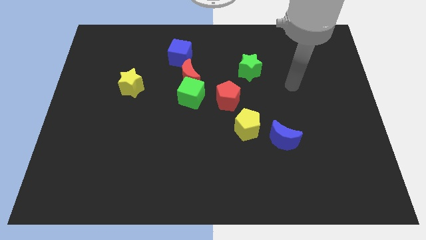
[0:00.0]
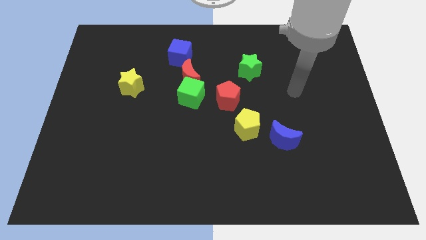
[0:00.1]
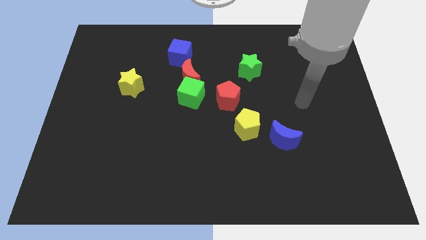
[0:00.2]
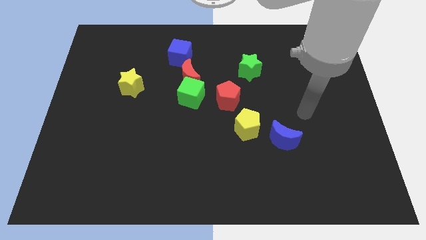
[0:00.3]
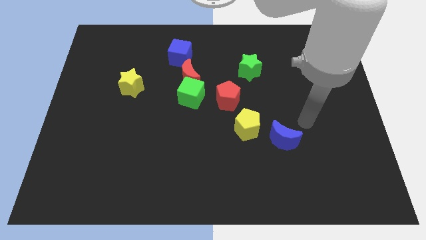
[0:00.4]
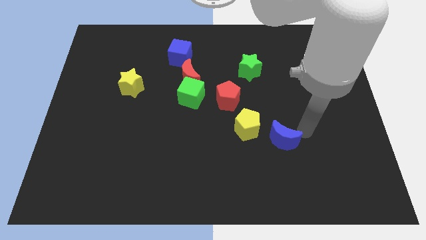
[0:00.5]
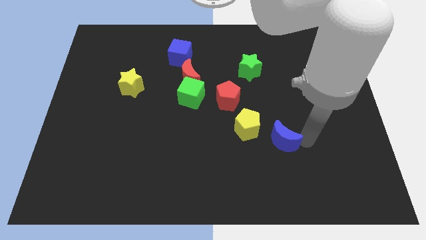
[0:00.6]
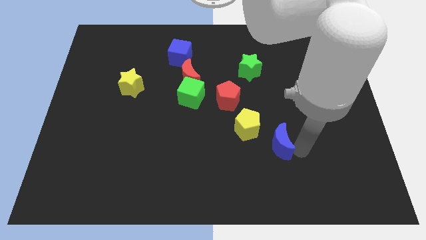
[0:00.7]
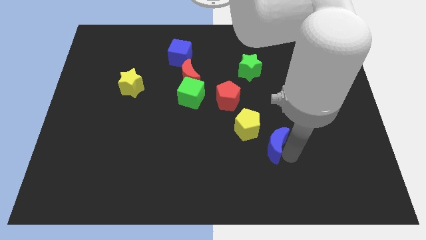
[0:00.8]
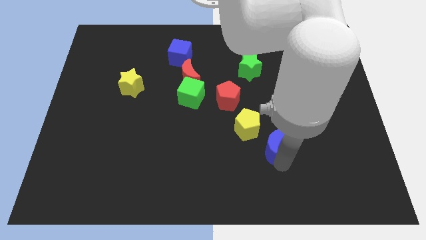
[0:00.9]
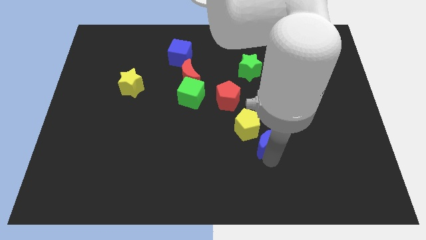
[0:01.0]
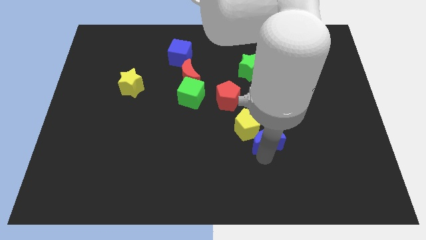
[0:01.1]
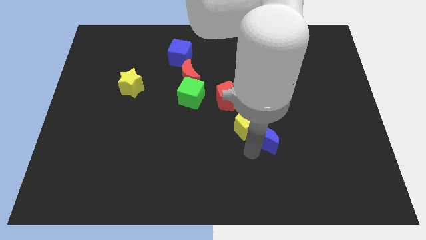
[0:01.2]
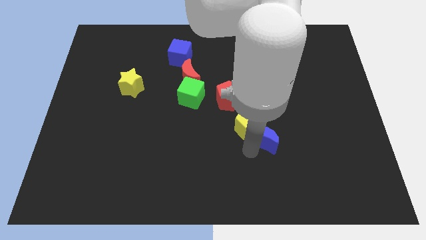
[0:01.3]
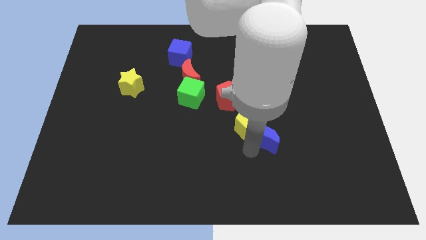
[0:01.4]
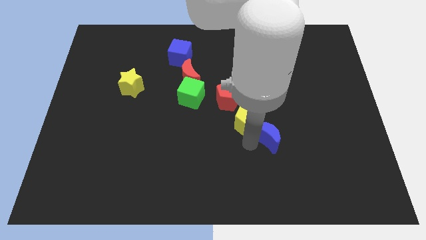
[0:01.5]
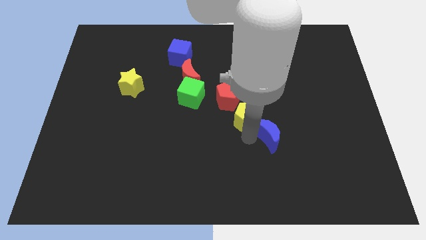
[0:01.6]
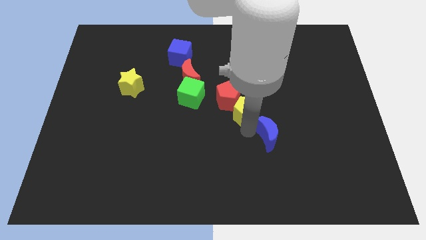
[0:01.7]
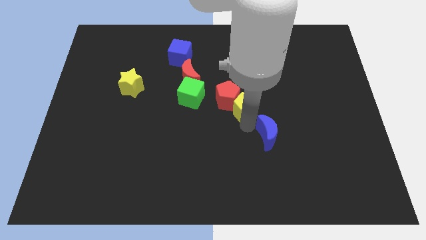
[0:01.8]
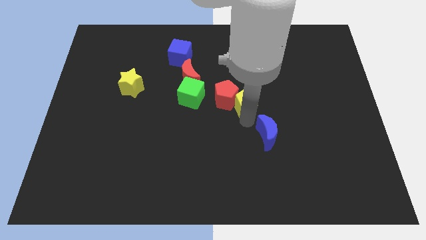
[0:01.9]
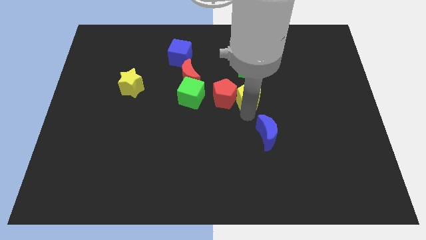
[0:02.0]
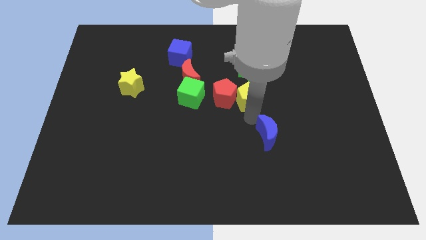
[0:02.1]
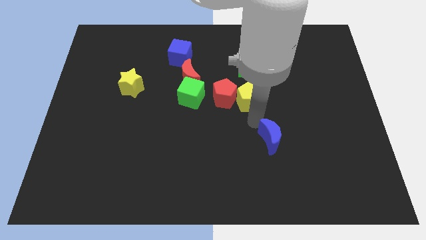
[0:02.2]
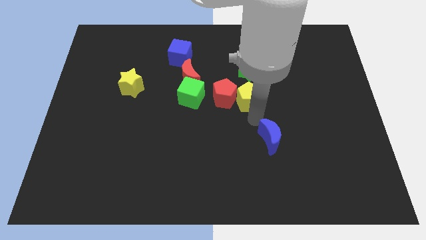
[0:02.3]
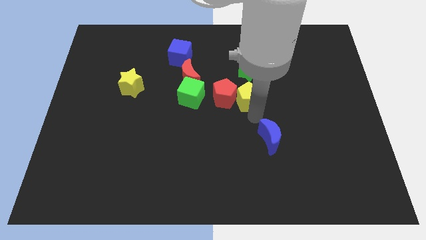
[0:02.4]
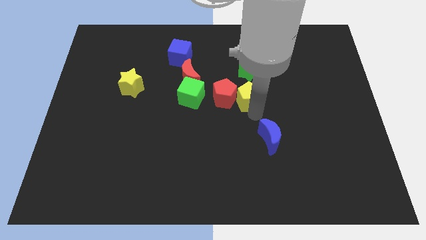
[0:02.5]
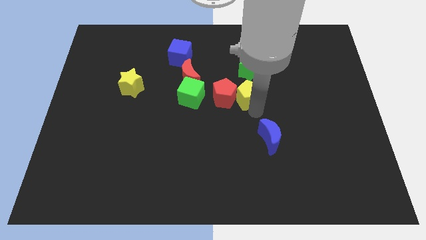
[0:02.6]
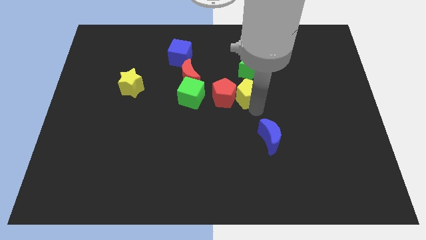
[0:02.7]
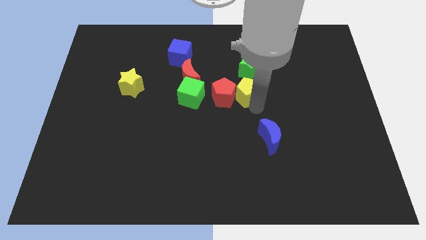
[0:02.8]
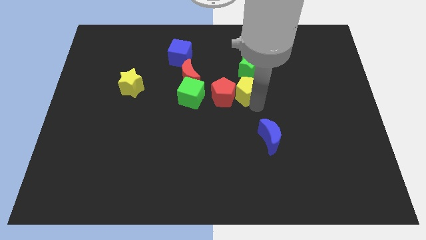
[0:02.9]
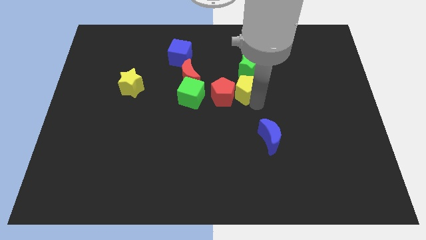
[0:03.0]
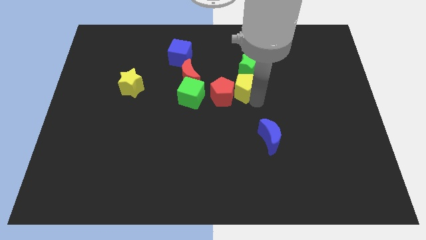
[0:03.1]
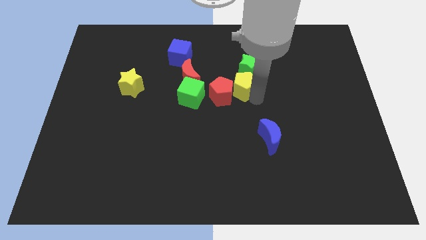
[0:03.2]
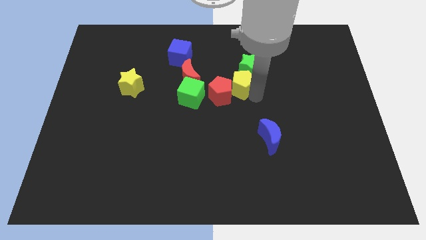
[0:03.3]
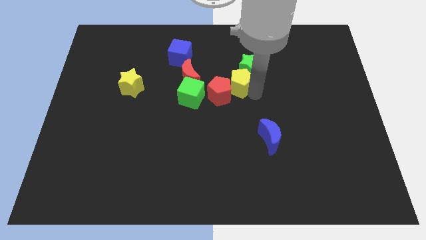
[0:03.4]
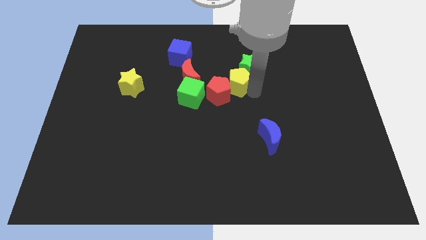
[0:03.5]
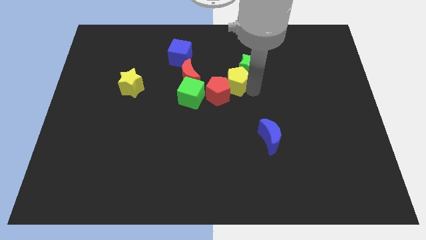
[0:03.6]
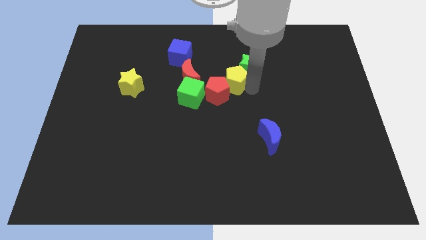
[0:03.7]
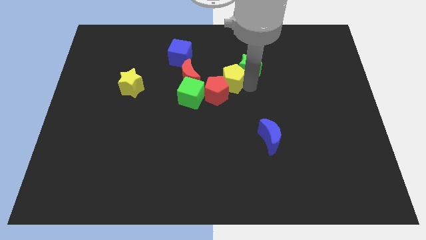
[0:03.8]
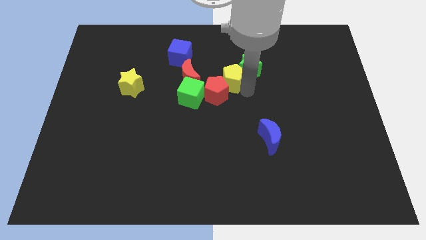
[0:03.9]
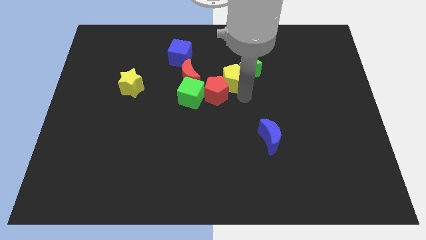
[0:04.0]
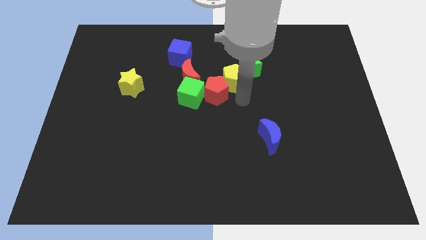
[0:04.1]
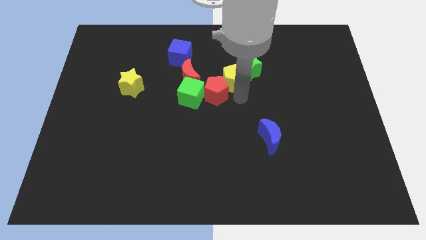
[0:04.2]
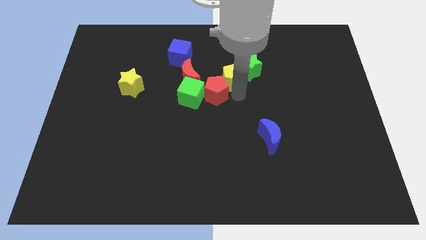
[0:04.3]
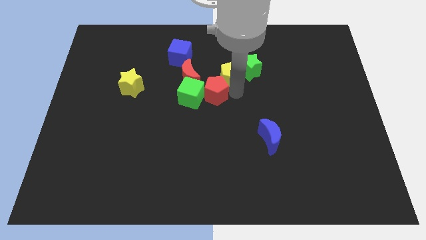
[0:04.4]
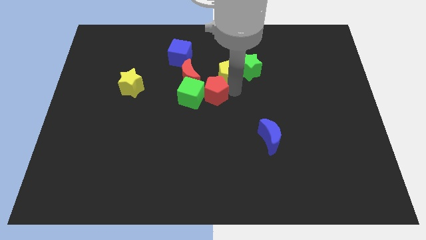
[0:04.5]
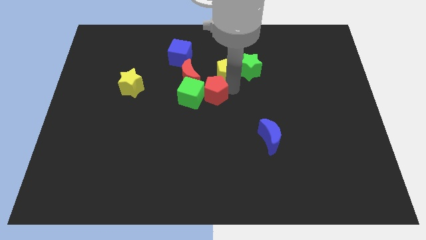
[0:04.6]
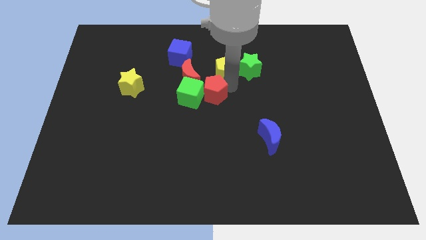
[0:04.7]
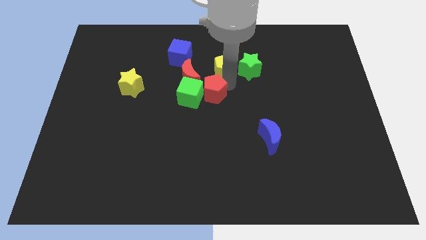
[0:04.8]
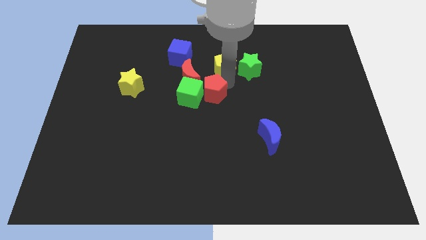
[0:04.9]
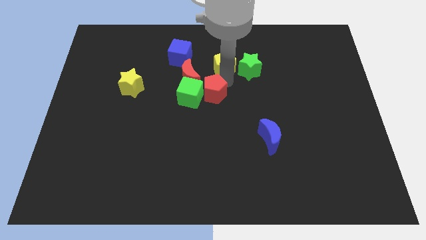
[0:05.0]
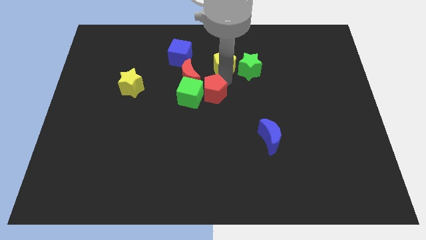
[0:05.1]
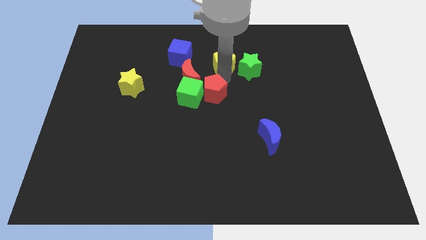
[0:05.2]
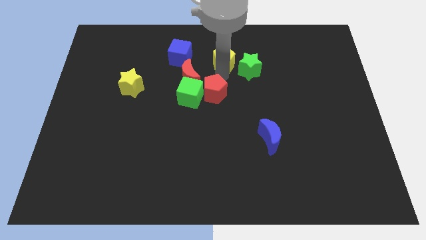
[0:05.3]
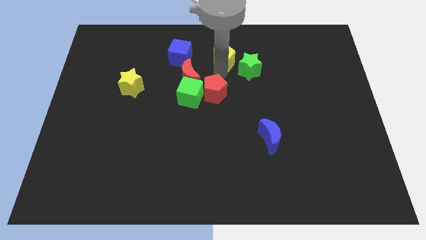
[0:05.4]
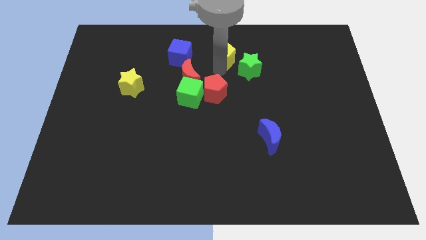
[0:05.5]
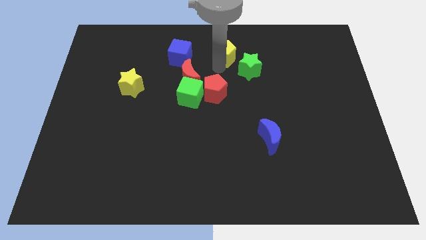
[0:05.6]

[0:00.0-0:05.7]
slide the yellow pentagon to the top

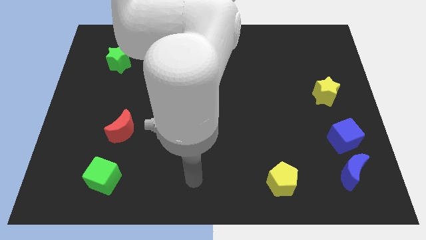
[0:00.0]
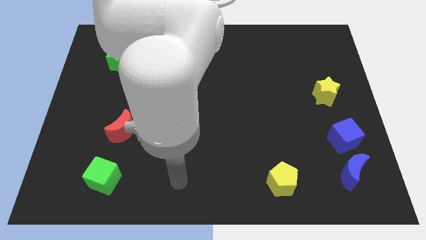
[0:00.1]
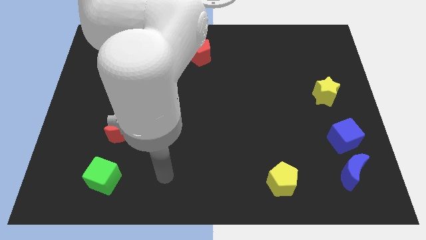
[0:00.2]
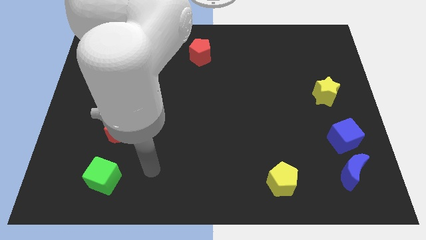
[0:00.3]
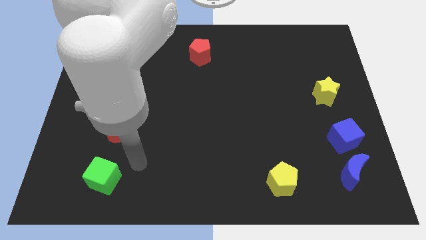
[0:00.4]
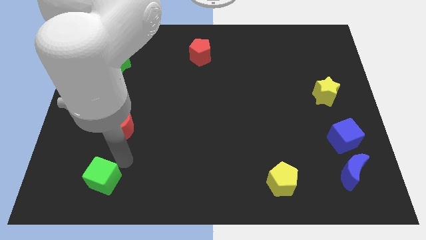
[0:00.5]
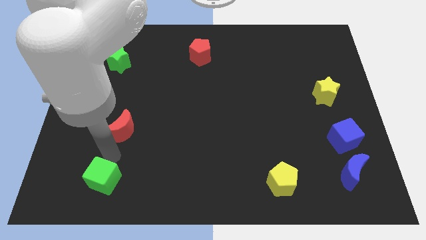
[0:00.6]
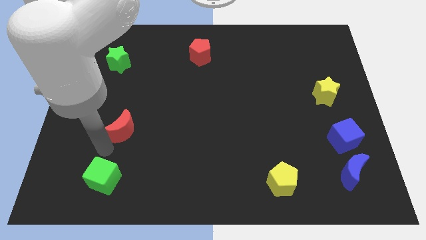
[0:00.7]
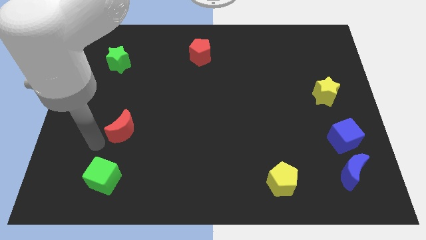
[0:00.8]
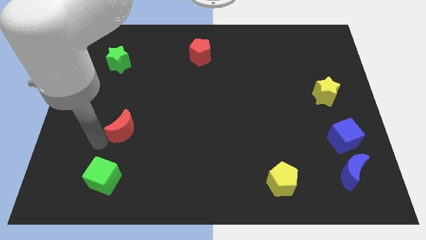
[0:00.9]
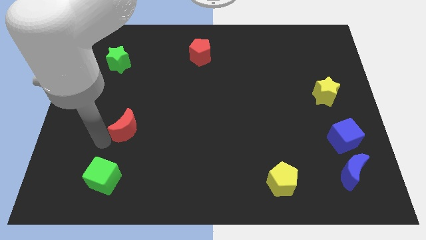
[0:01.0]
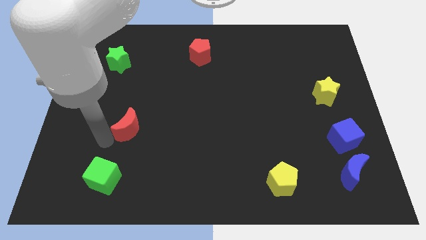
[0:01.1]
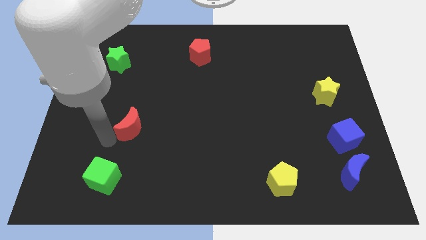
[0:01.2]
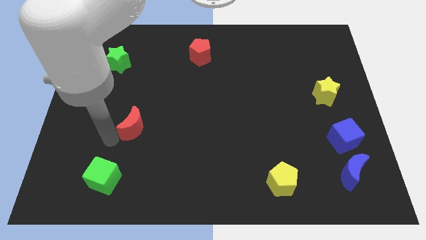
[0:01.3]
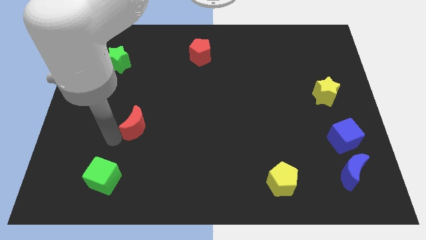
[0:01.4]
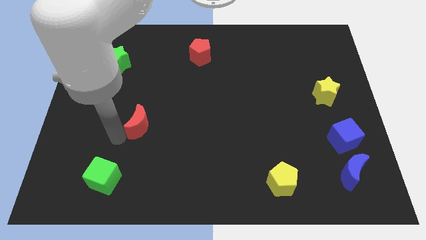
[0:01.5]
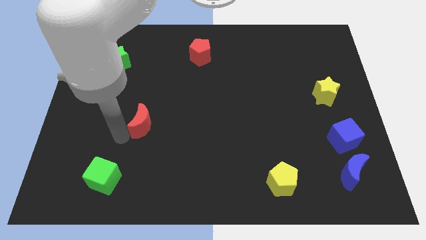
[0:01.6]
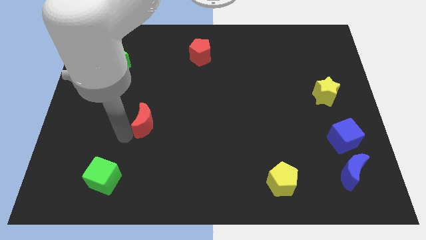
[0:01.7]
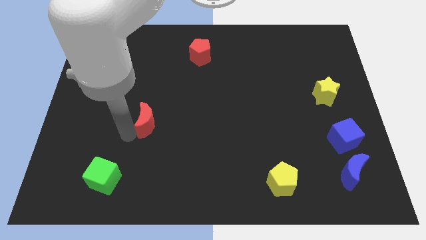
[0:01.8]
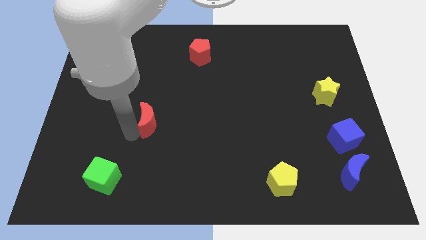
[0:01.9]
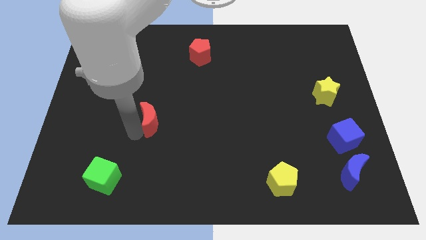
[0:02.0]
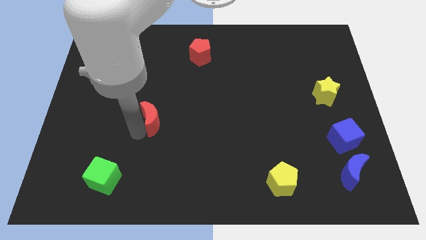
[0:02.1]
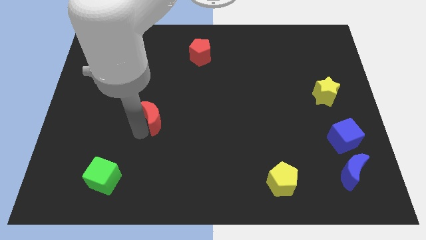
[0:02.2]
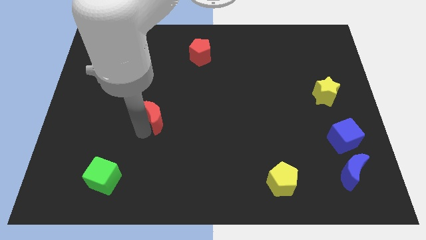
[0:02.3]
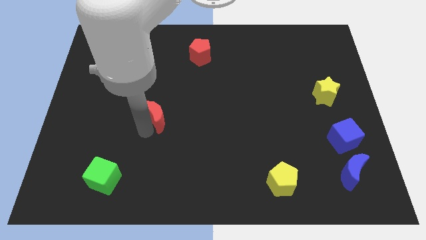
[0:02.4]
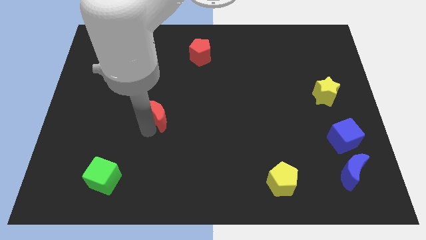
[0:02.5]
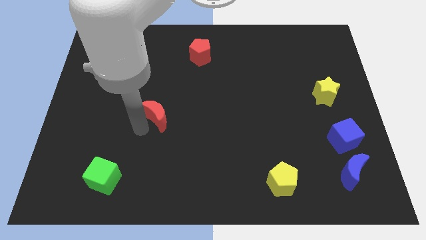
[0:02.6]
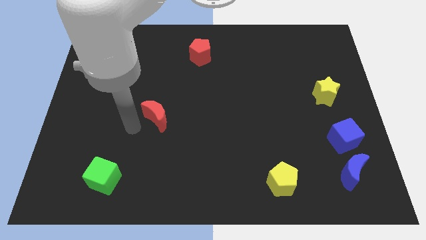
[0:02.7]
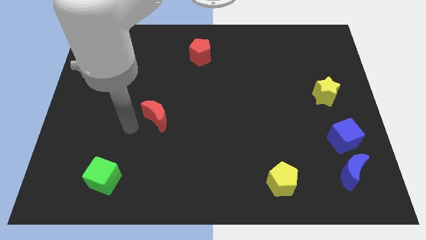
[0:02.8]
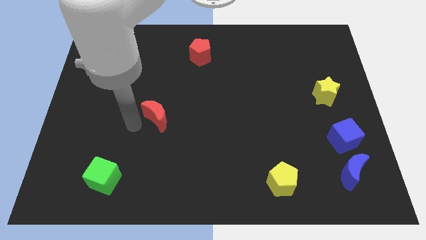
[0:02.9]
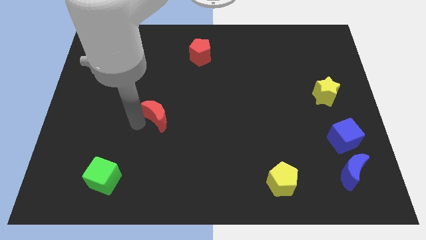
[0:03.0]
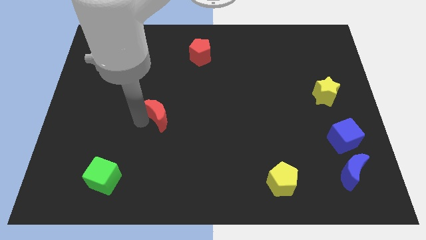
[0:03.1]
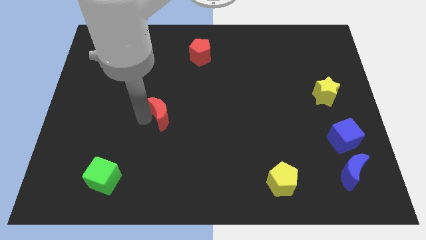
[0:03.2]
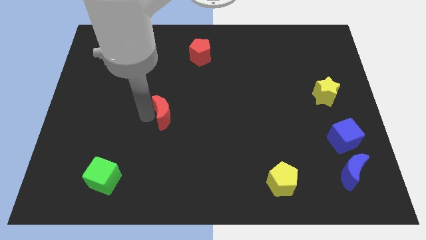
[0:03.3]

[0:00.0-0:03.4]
put the red moon to the center of the board
